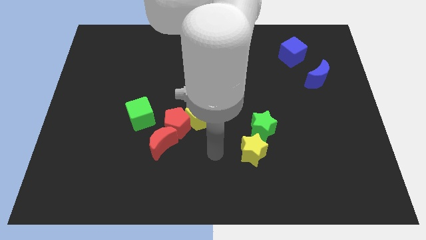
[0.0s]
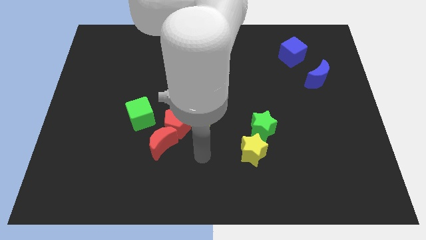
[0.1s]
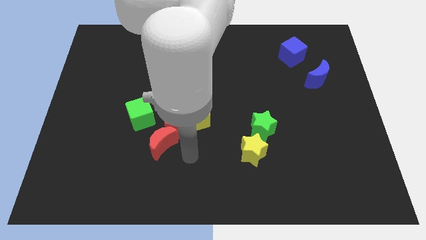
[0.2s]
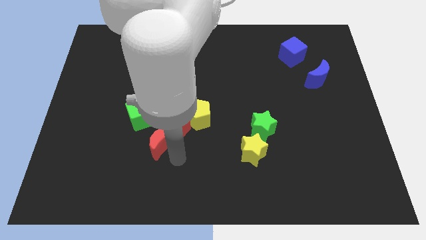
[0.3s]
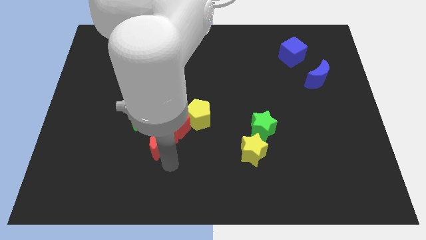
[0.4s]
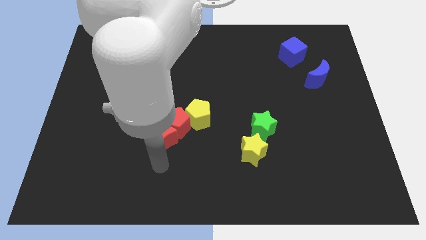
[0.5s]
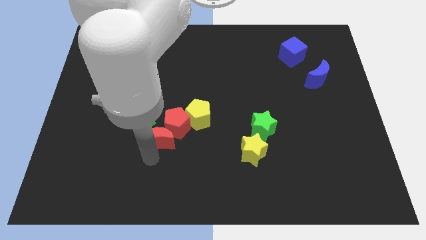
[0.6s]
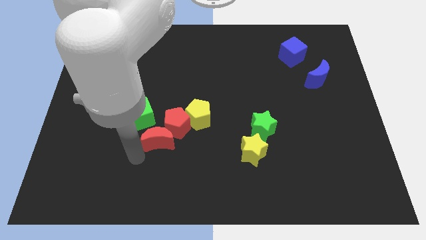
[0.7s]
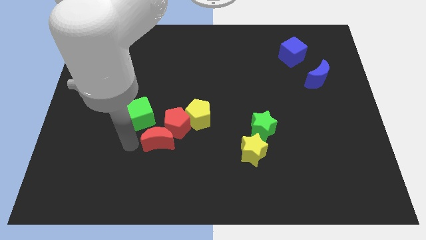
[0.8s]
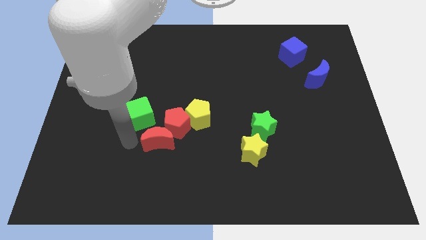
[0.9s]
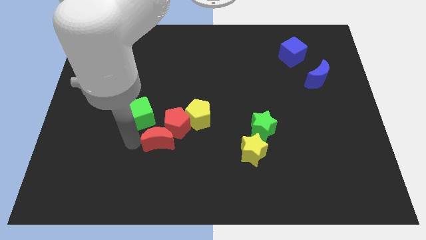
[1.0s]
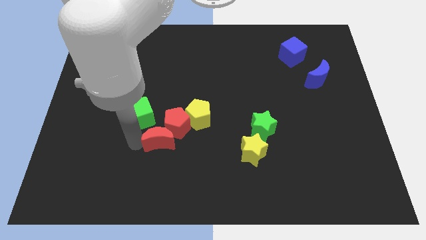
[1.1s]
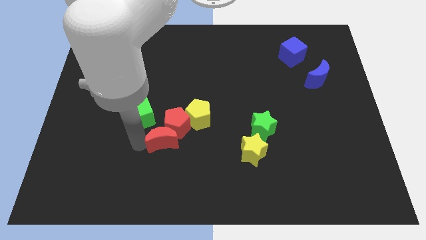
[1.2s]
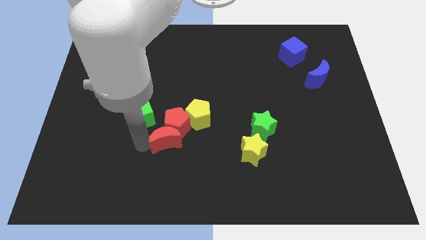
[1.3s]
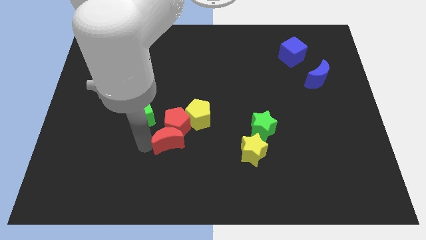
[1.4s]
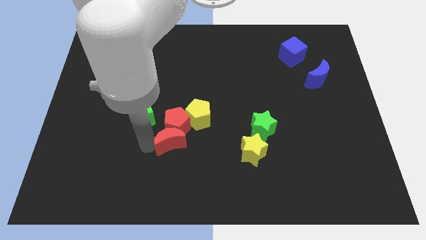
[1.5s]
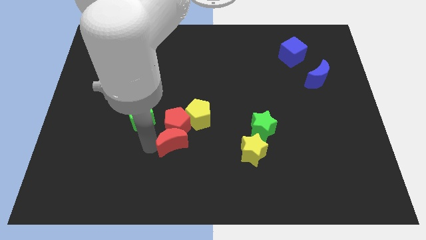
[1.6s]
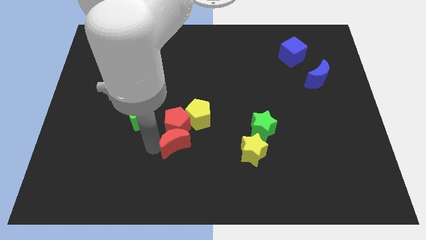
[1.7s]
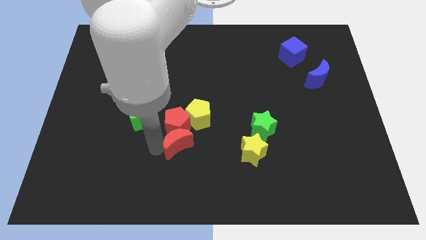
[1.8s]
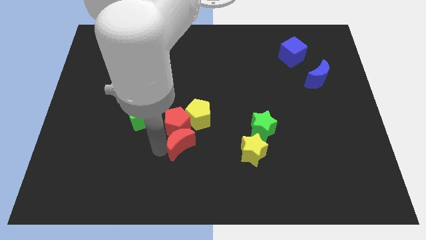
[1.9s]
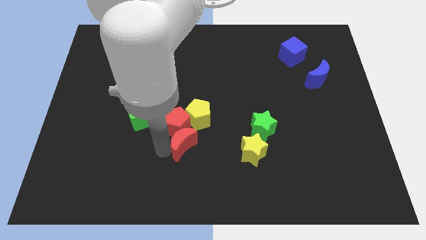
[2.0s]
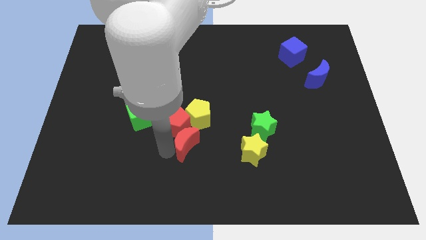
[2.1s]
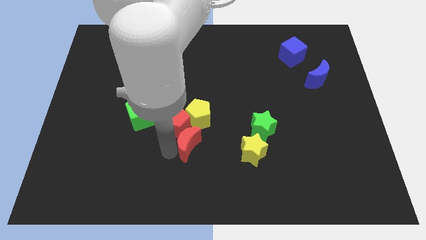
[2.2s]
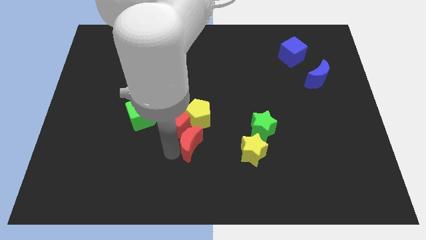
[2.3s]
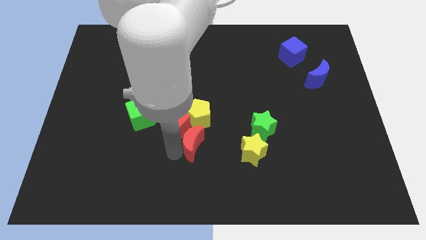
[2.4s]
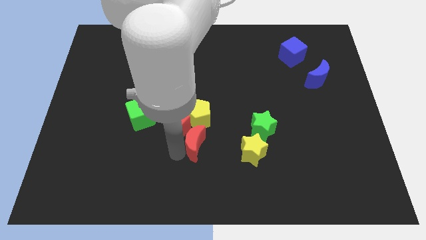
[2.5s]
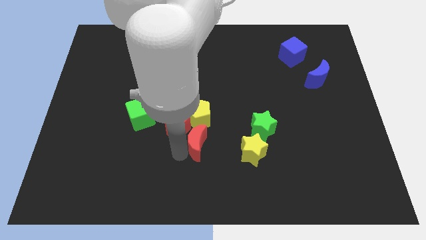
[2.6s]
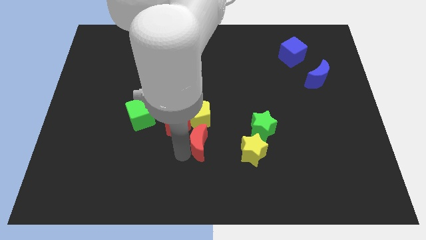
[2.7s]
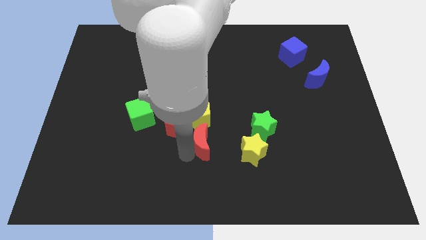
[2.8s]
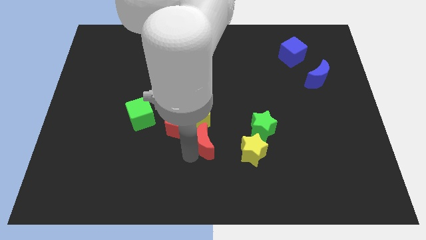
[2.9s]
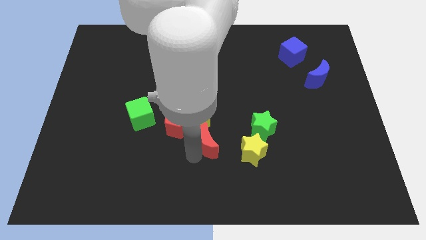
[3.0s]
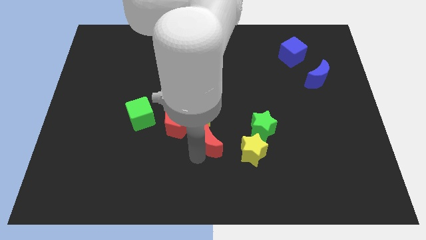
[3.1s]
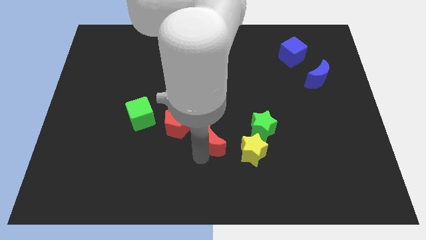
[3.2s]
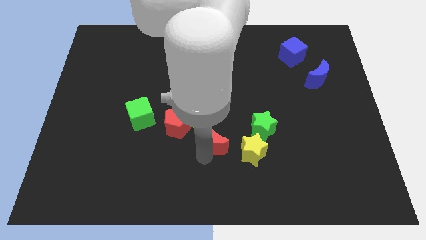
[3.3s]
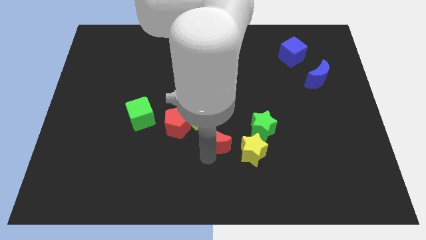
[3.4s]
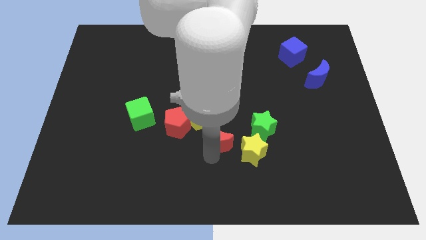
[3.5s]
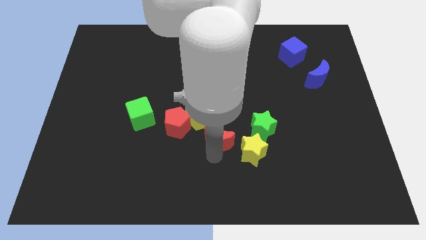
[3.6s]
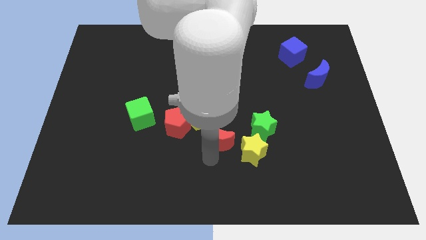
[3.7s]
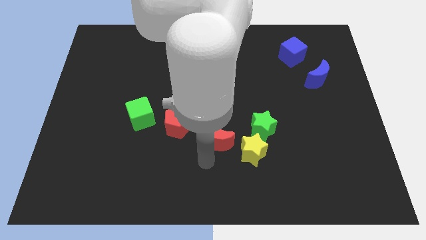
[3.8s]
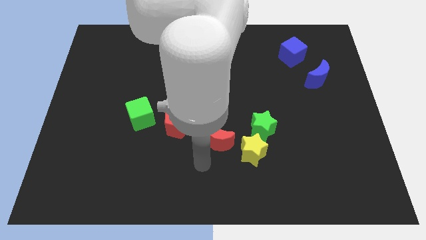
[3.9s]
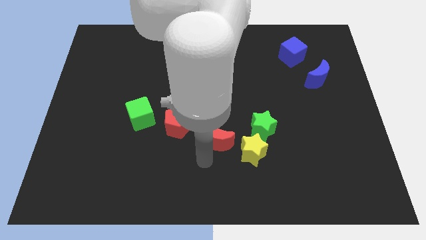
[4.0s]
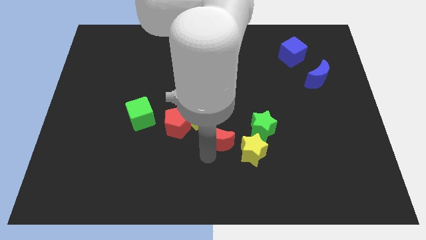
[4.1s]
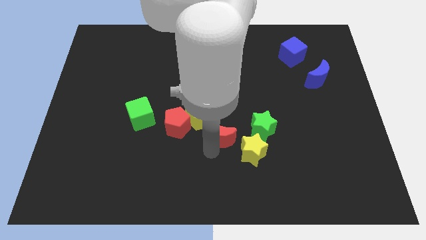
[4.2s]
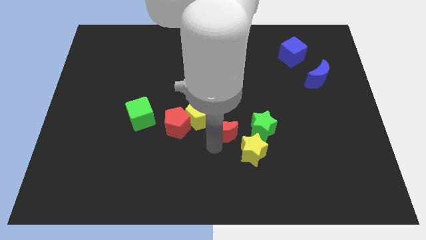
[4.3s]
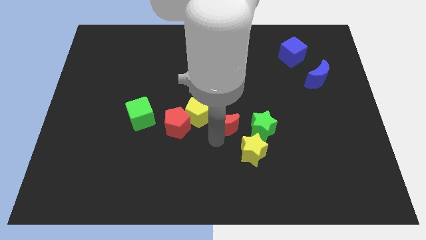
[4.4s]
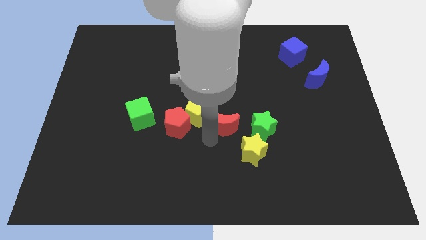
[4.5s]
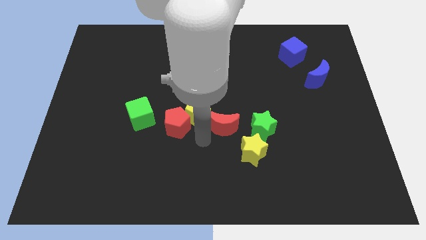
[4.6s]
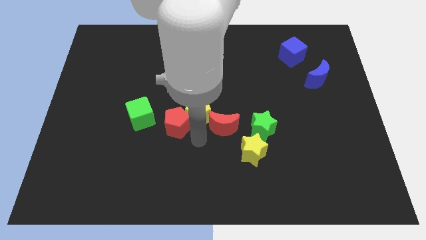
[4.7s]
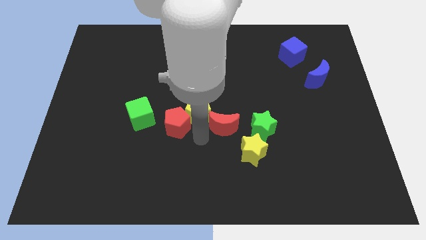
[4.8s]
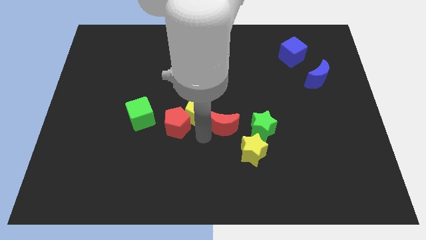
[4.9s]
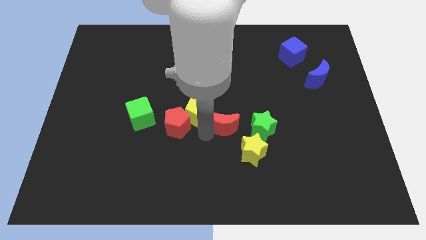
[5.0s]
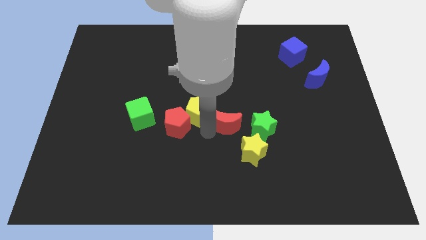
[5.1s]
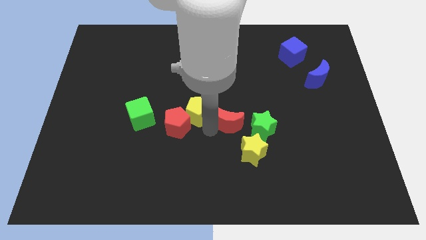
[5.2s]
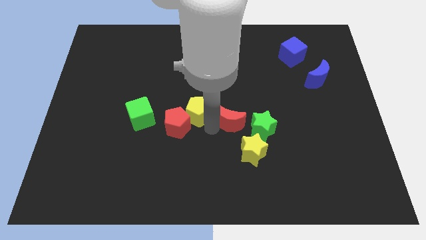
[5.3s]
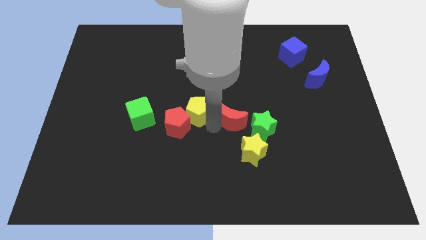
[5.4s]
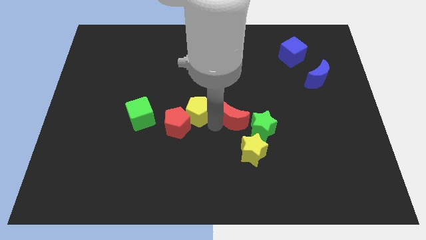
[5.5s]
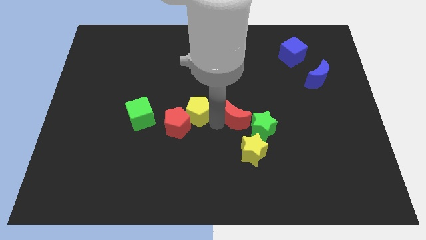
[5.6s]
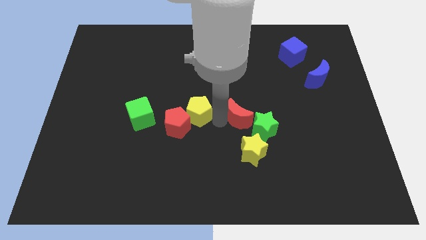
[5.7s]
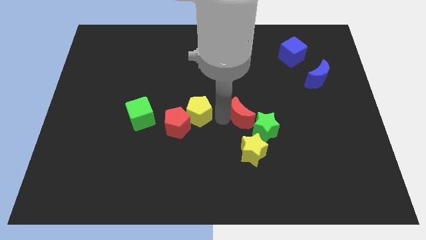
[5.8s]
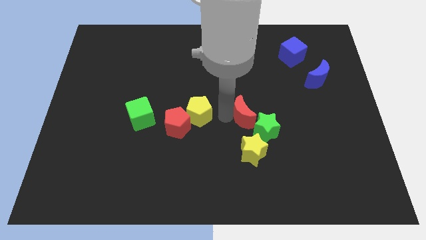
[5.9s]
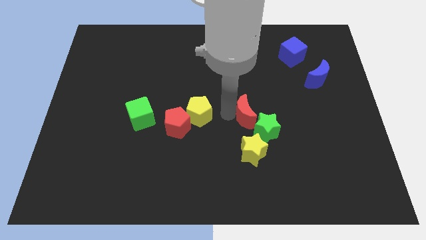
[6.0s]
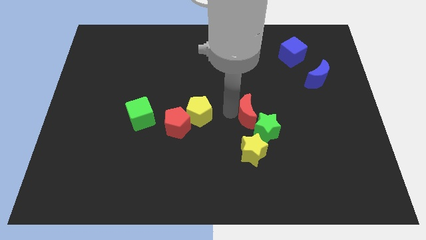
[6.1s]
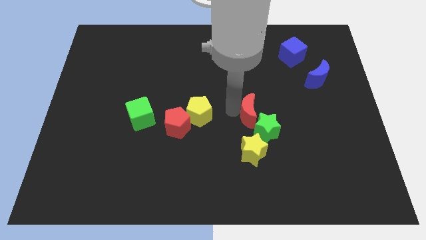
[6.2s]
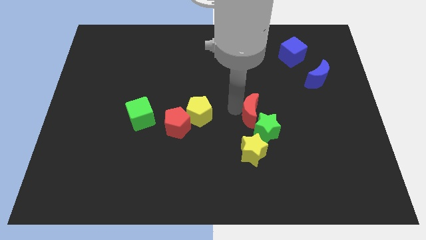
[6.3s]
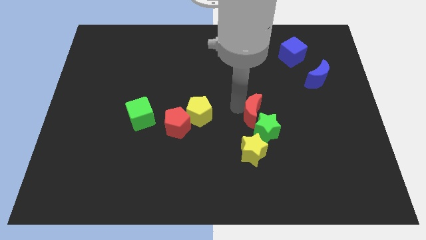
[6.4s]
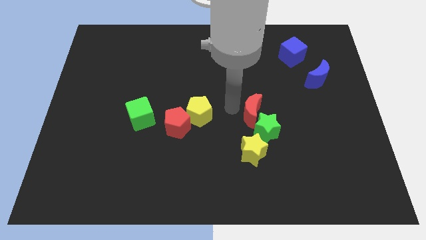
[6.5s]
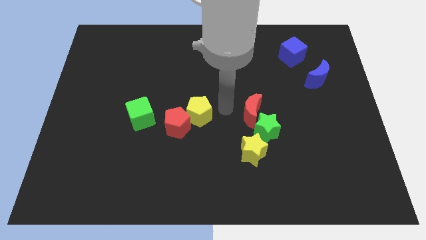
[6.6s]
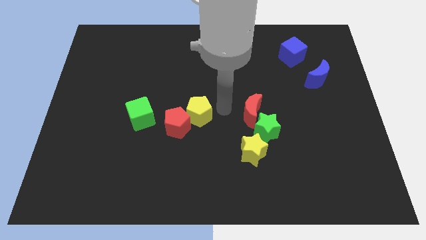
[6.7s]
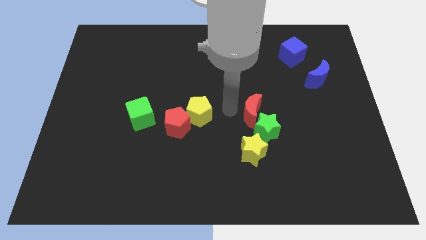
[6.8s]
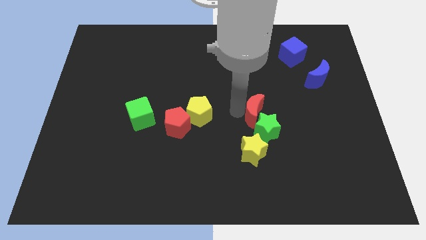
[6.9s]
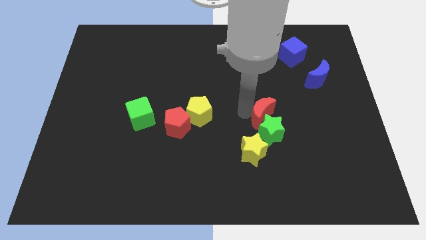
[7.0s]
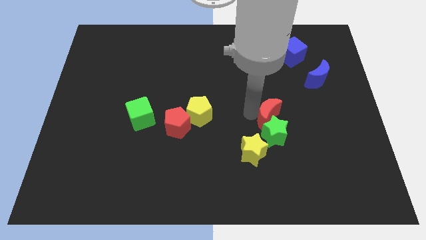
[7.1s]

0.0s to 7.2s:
move the red moon diagonally up and to the right of the yellow star
